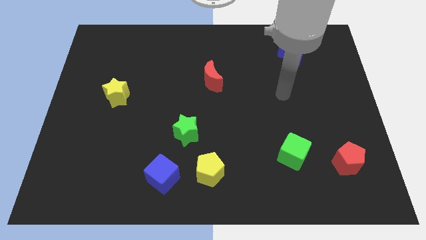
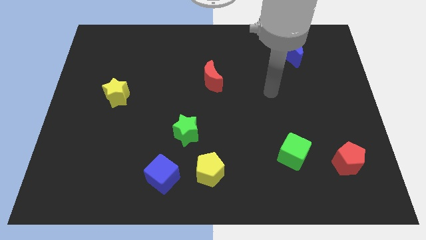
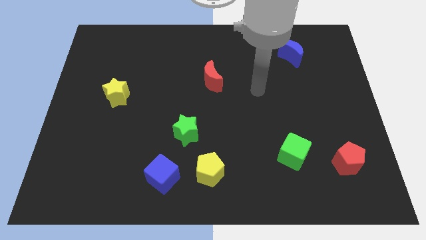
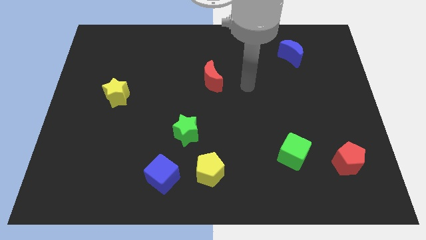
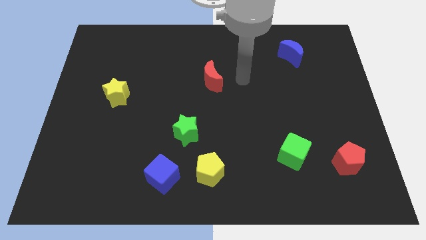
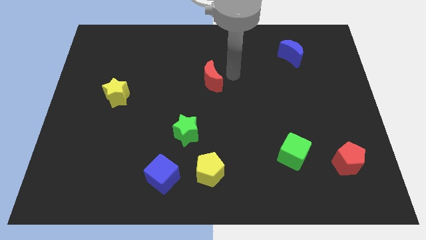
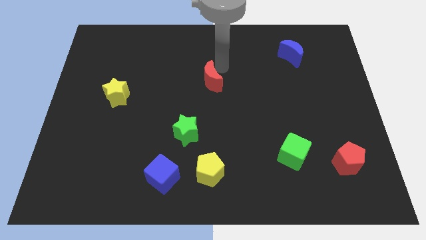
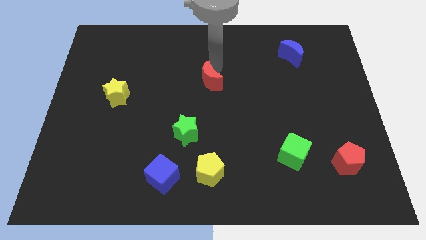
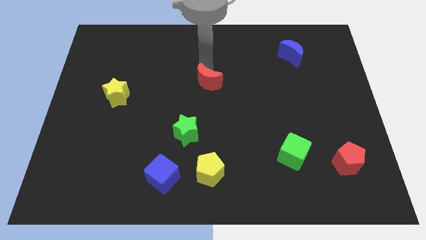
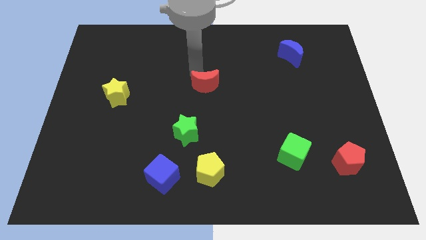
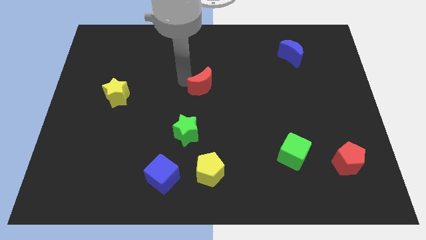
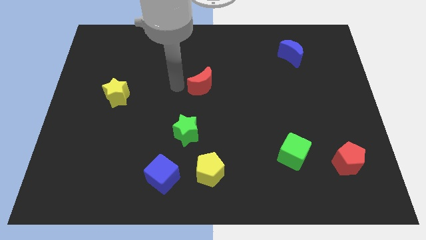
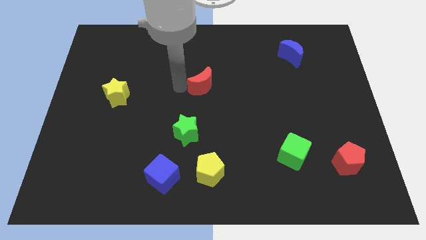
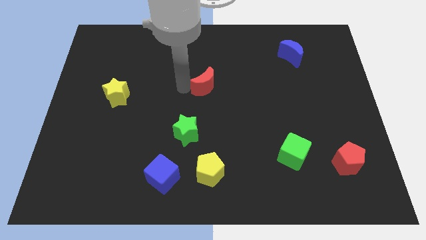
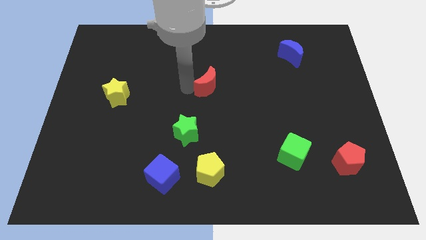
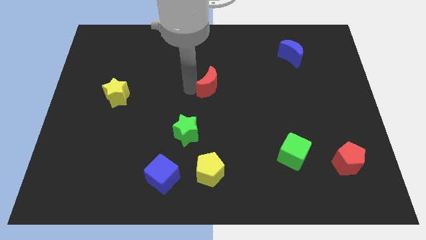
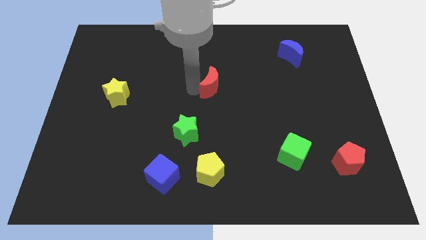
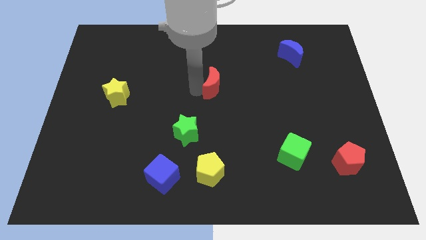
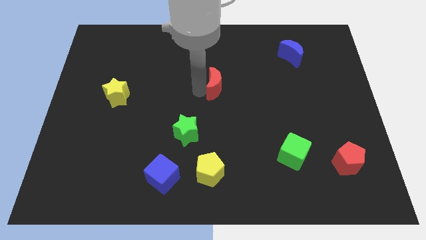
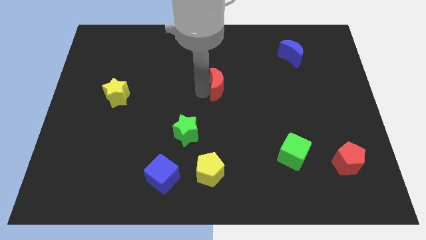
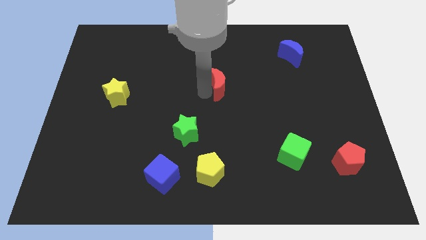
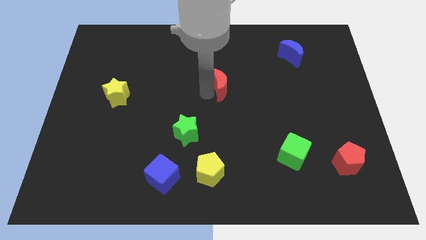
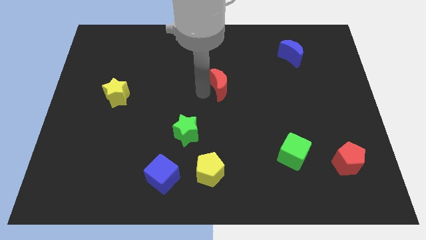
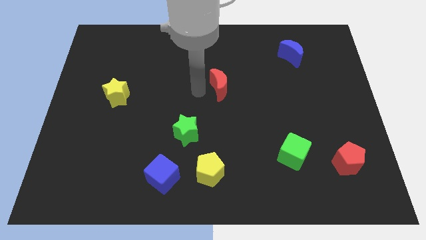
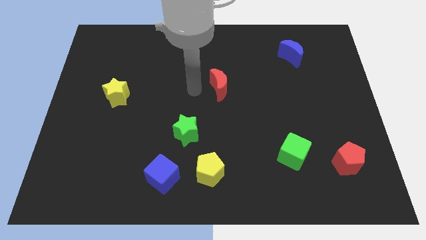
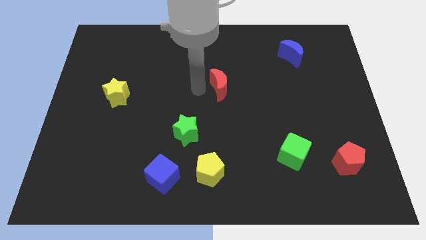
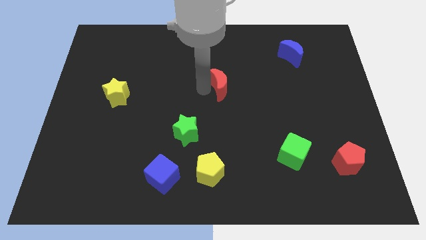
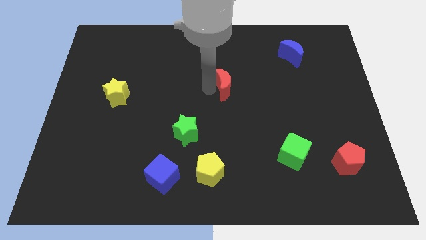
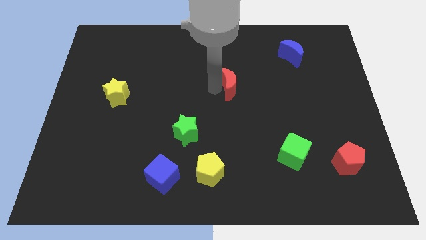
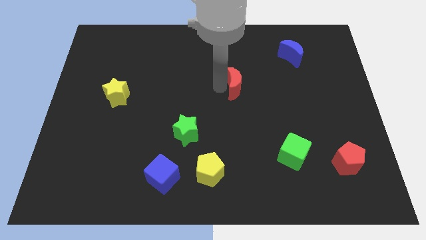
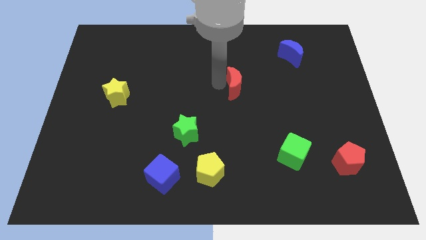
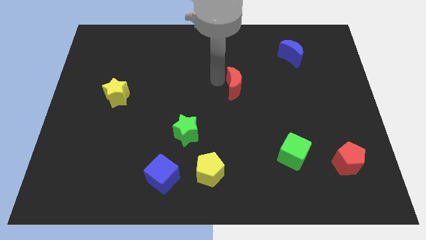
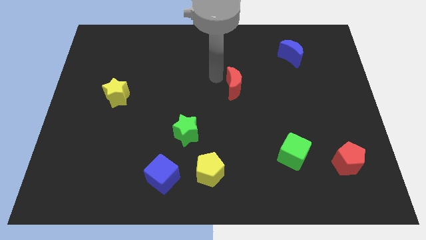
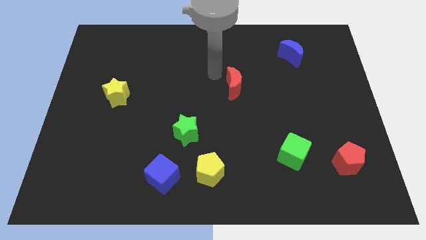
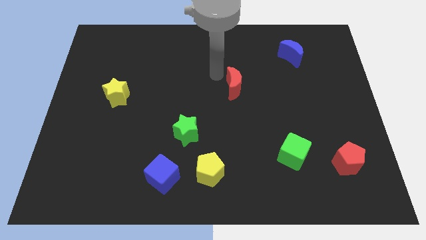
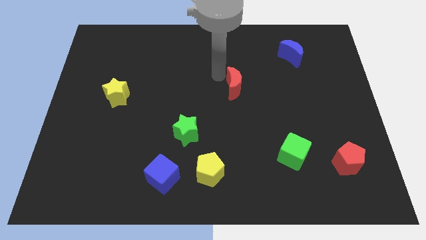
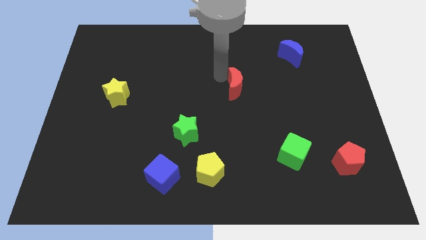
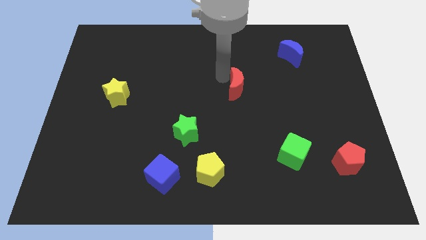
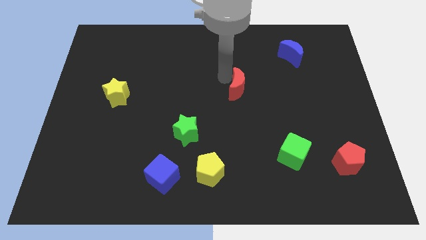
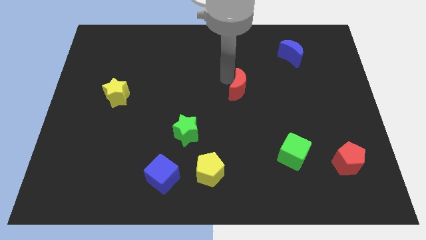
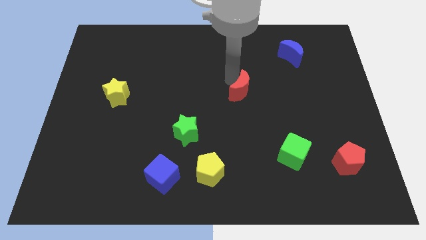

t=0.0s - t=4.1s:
slightly slide the red moon down and then to the right

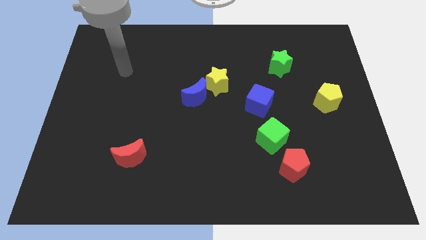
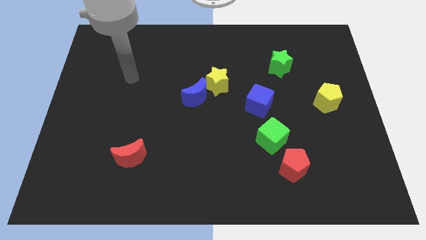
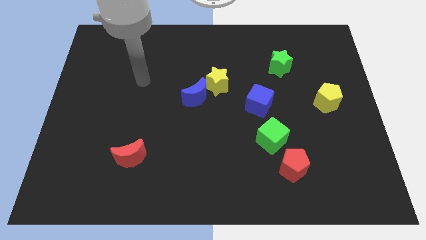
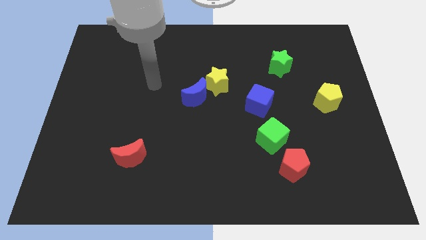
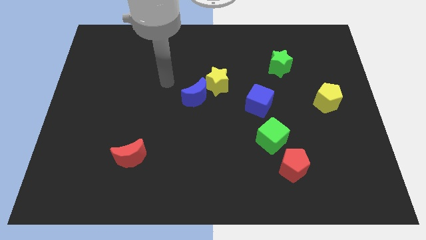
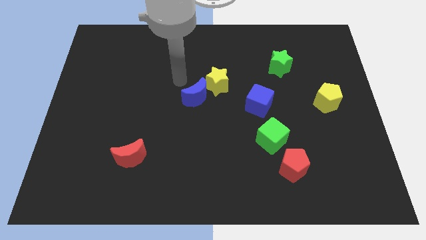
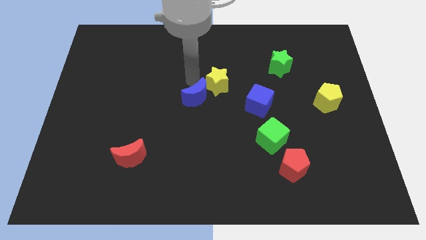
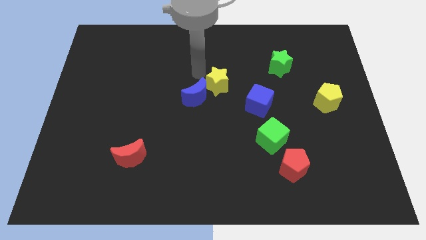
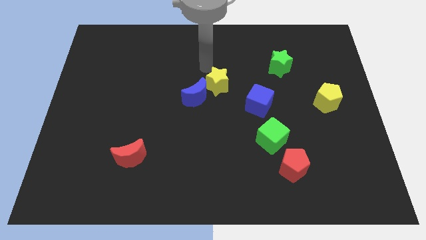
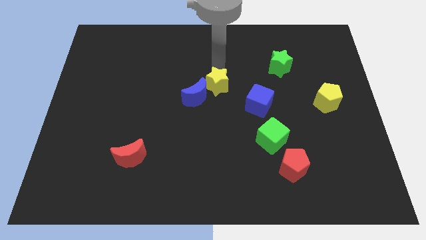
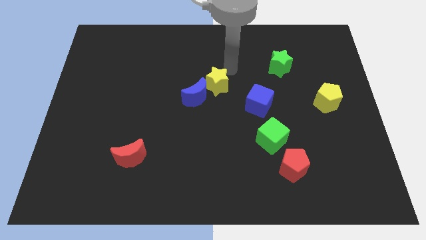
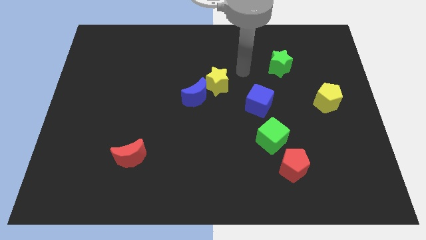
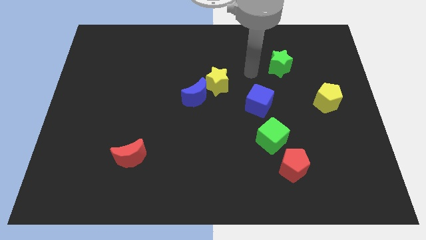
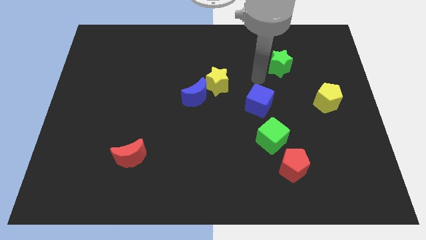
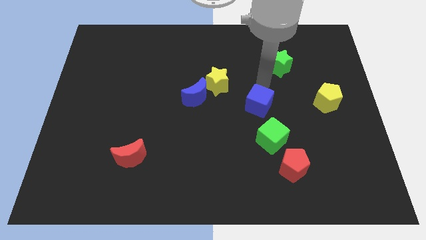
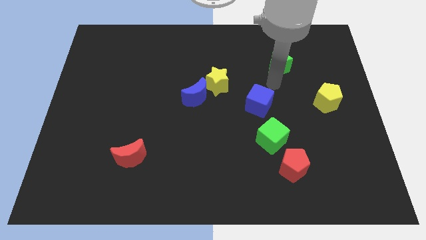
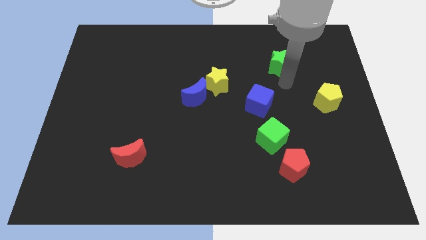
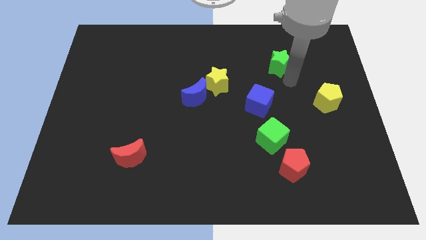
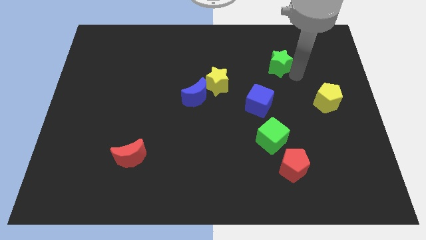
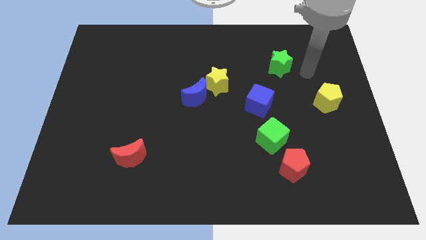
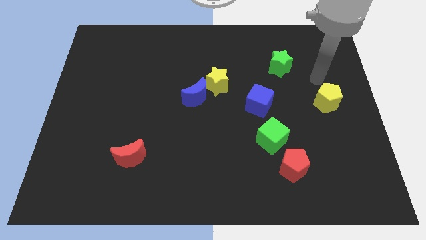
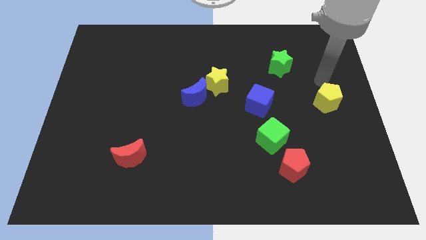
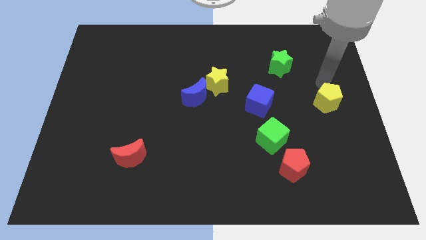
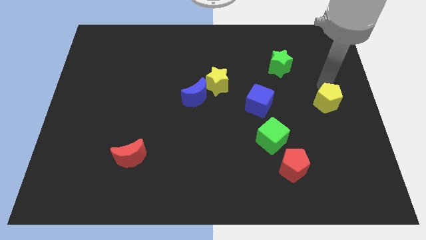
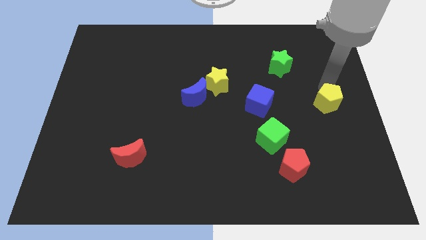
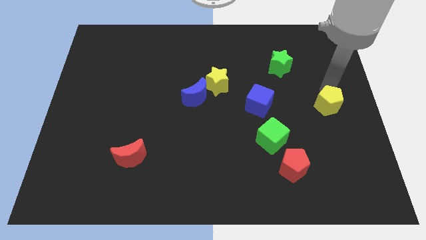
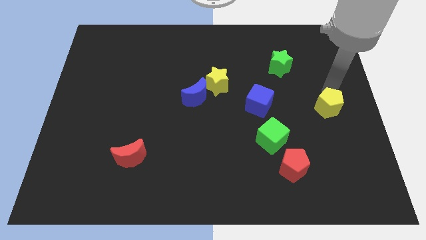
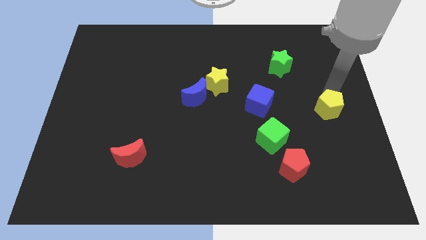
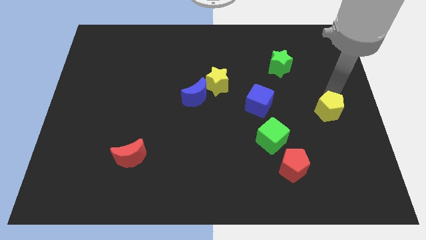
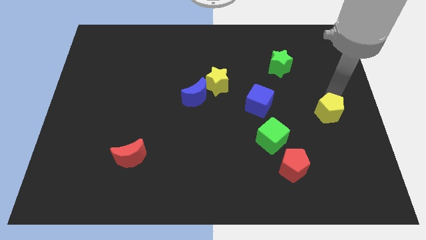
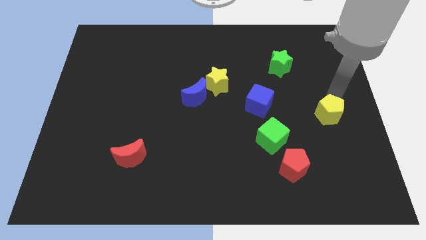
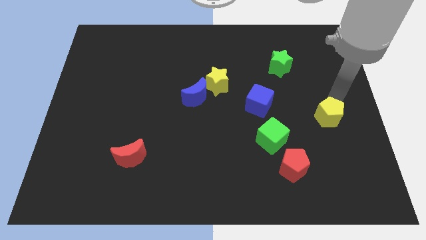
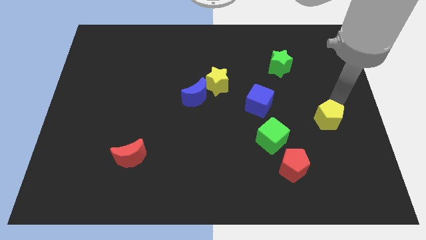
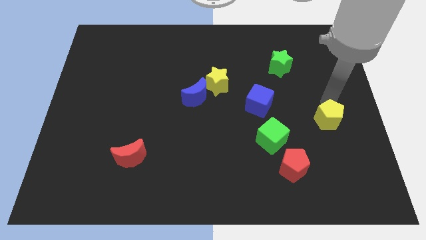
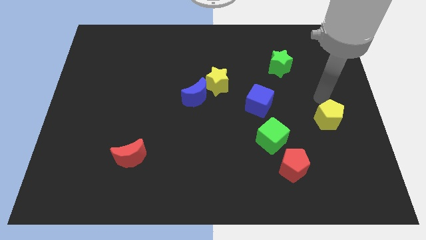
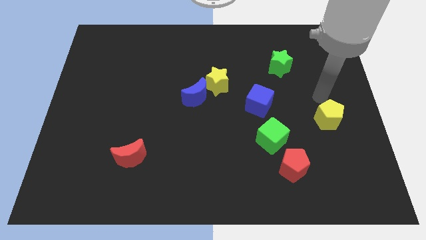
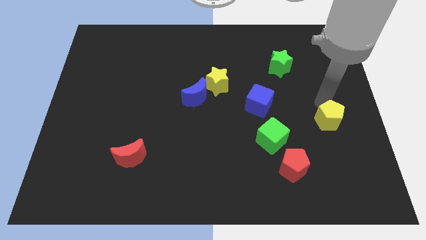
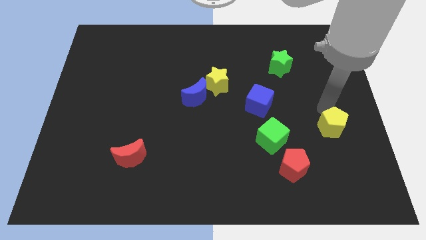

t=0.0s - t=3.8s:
slide the yellow pentagon a little down
